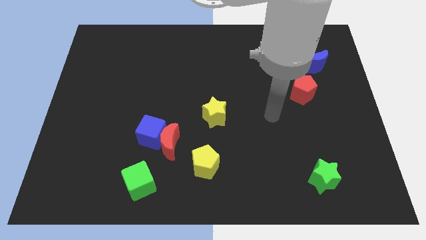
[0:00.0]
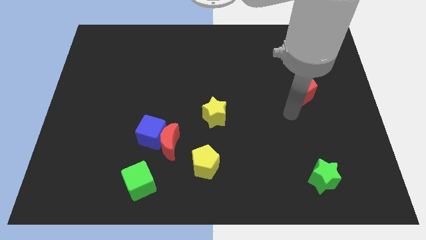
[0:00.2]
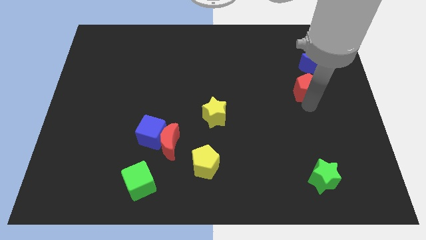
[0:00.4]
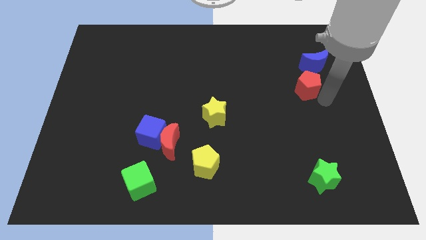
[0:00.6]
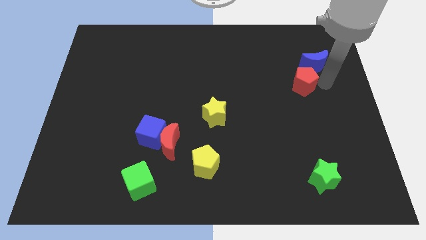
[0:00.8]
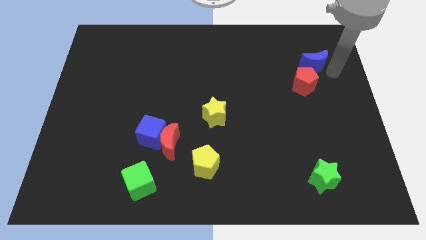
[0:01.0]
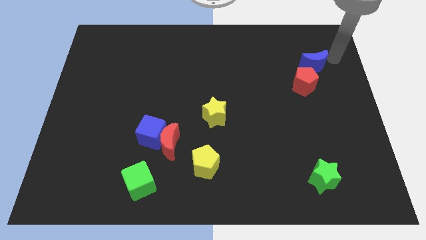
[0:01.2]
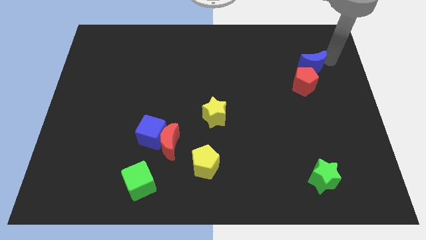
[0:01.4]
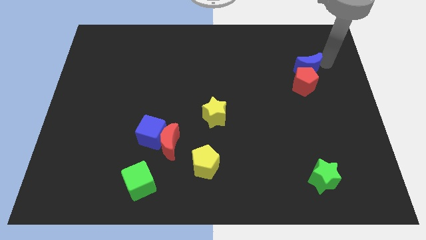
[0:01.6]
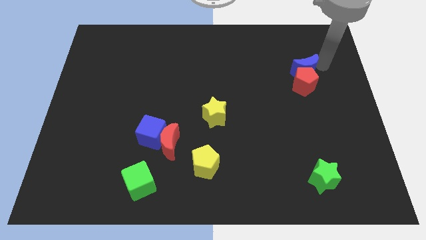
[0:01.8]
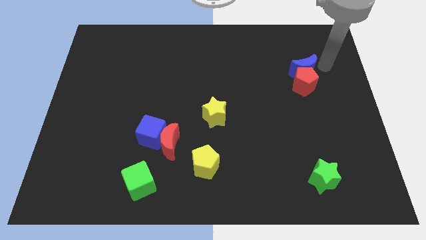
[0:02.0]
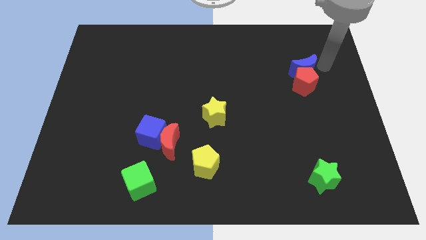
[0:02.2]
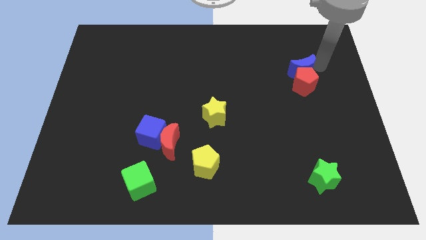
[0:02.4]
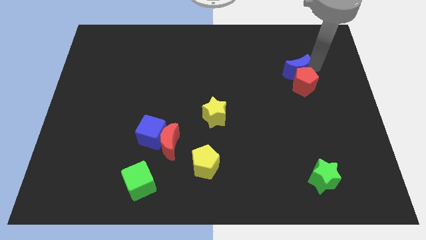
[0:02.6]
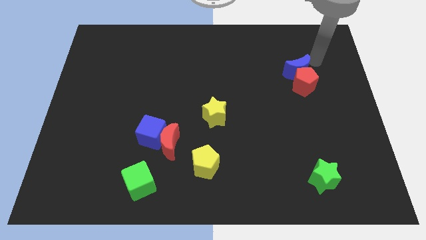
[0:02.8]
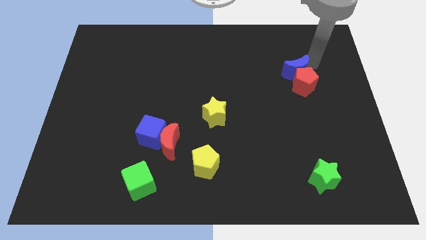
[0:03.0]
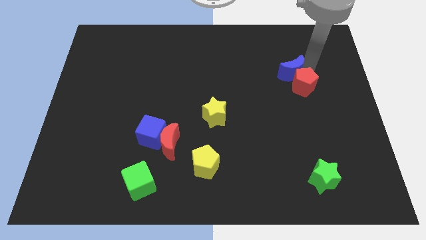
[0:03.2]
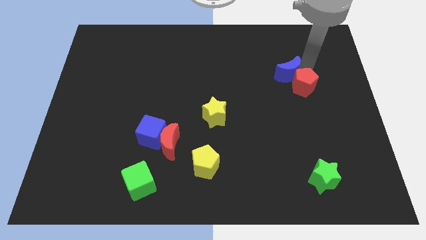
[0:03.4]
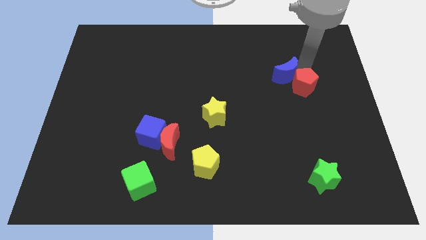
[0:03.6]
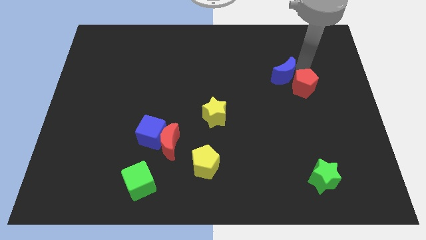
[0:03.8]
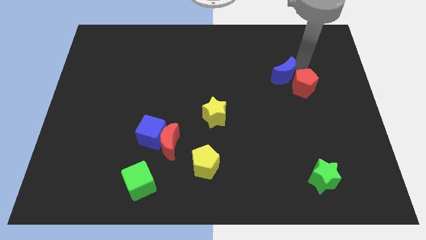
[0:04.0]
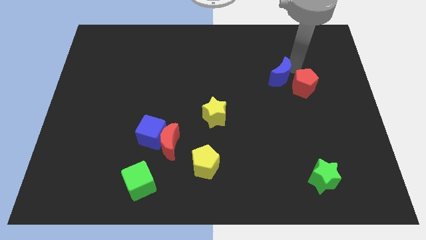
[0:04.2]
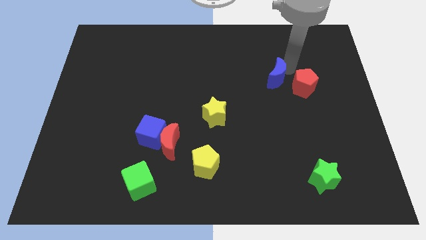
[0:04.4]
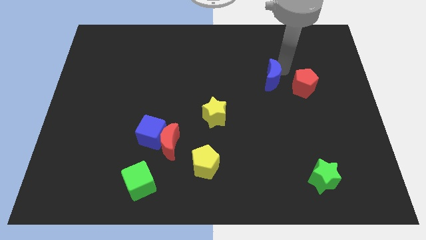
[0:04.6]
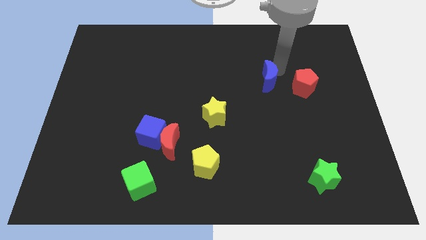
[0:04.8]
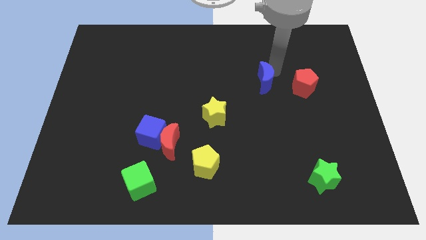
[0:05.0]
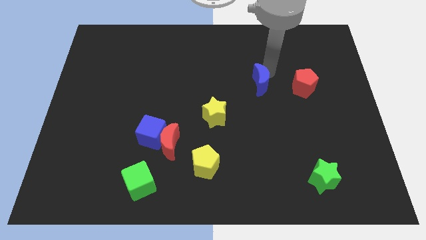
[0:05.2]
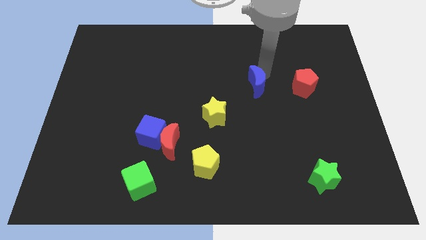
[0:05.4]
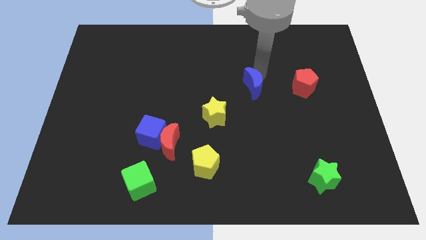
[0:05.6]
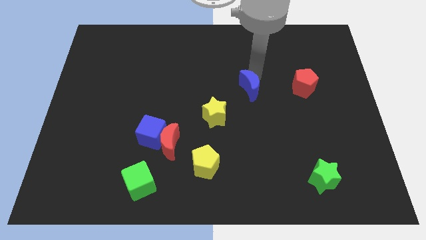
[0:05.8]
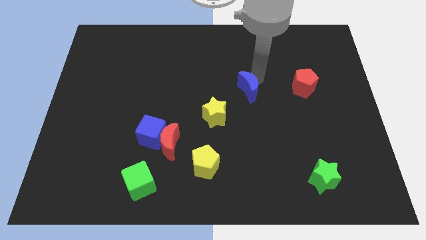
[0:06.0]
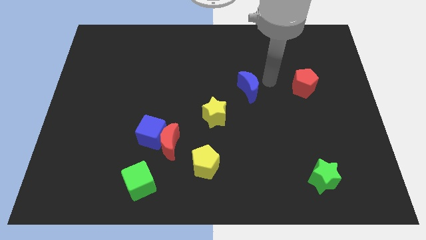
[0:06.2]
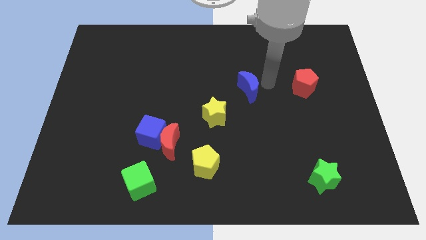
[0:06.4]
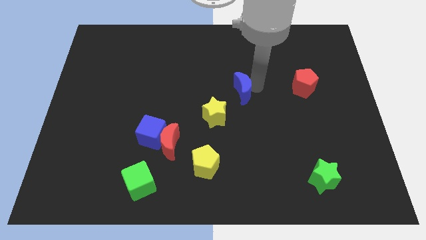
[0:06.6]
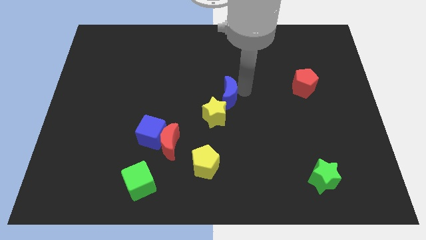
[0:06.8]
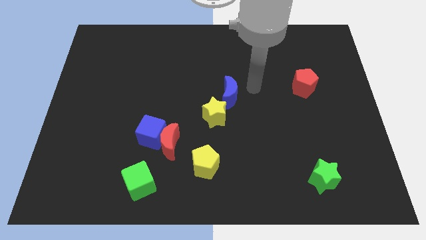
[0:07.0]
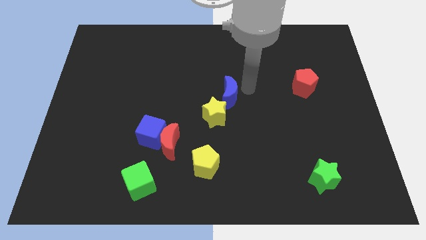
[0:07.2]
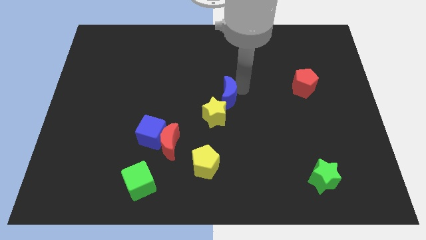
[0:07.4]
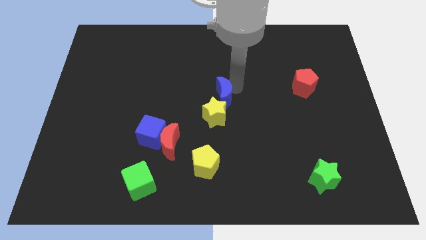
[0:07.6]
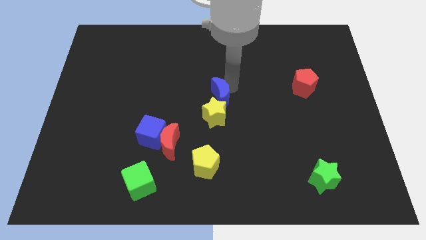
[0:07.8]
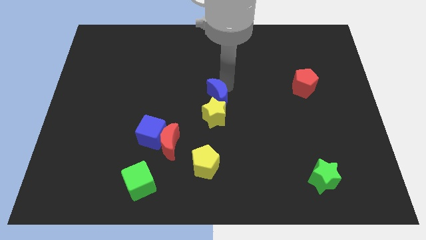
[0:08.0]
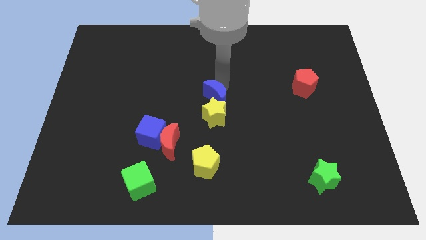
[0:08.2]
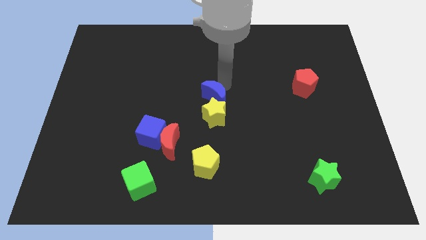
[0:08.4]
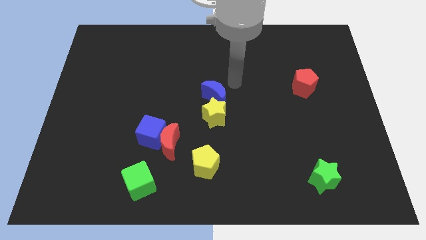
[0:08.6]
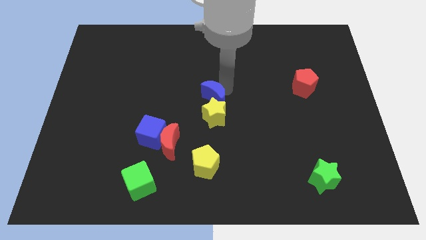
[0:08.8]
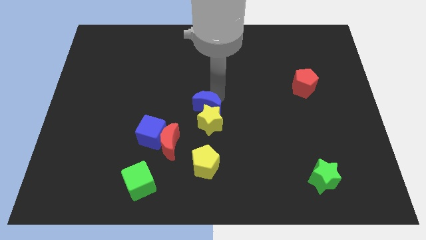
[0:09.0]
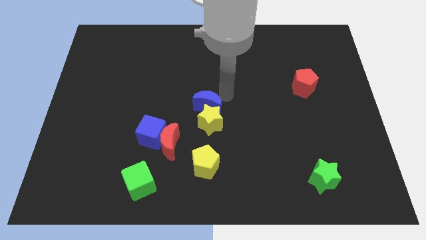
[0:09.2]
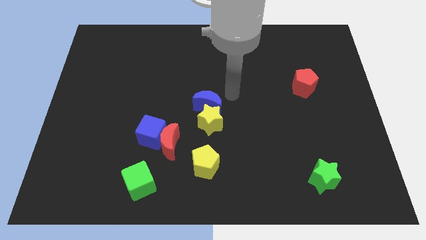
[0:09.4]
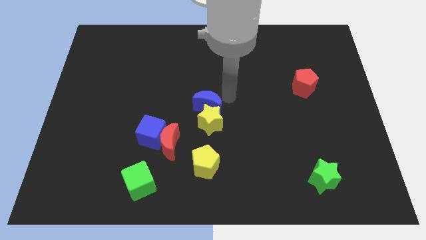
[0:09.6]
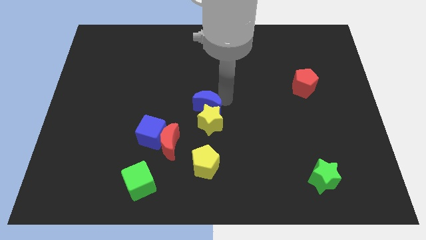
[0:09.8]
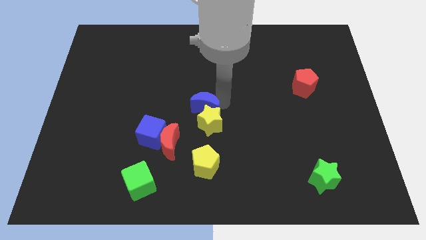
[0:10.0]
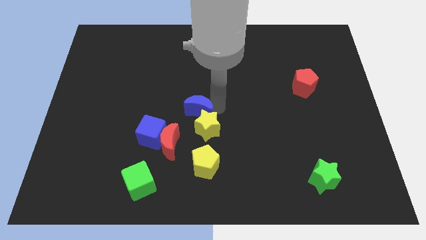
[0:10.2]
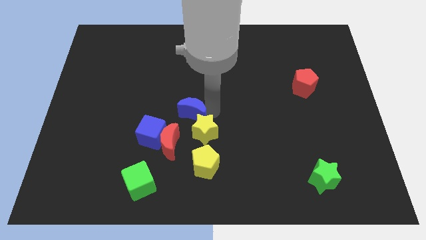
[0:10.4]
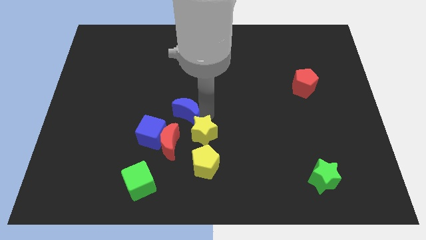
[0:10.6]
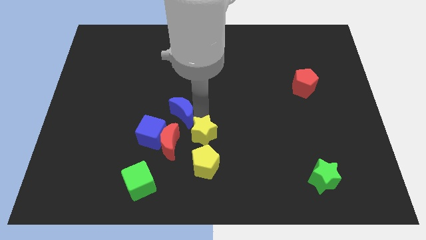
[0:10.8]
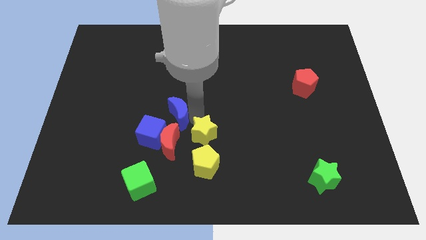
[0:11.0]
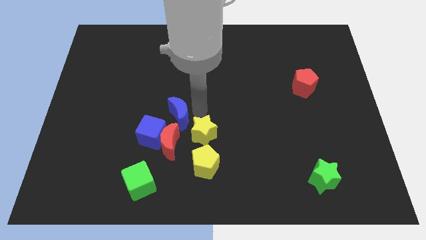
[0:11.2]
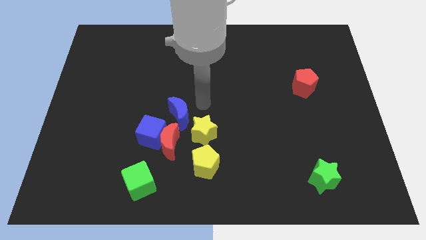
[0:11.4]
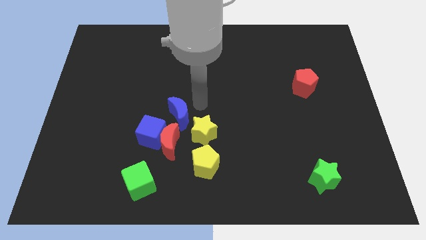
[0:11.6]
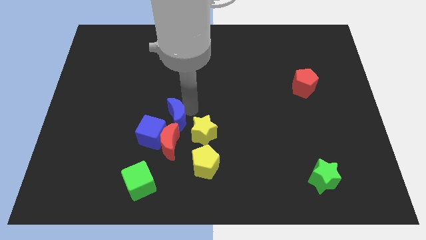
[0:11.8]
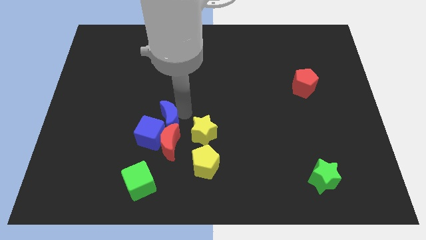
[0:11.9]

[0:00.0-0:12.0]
move the blue moon towards the blue cube

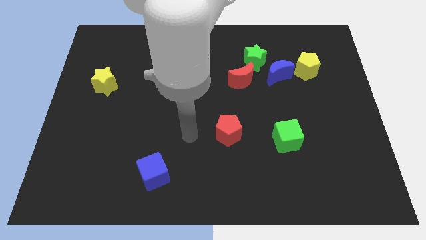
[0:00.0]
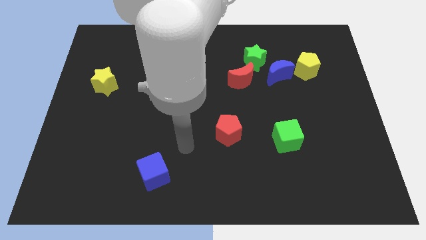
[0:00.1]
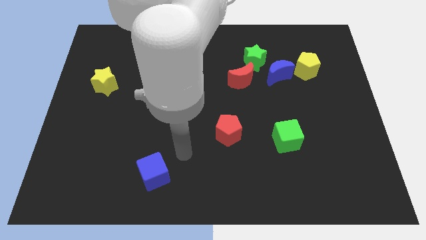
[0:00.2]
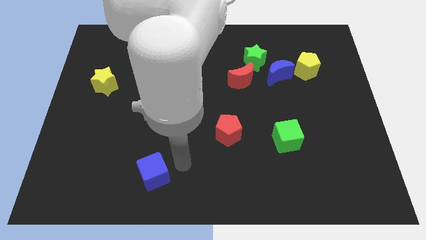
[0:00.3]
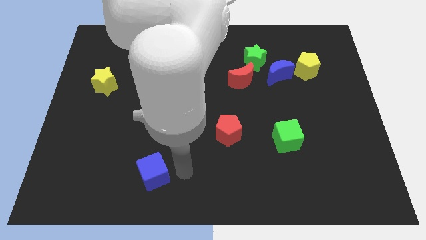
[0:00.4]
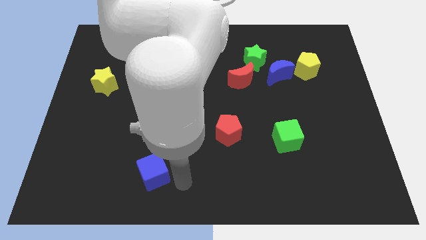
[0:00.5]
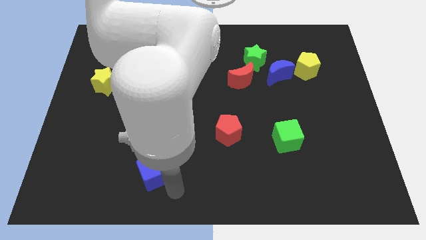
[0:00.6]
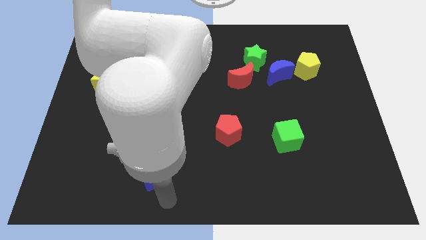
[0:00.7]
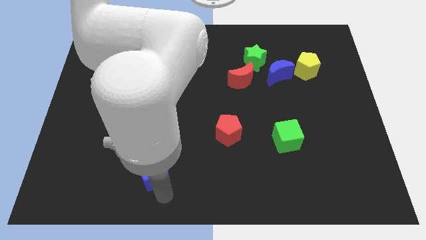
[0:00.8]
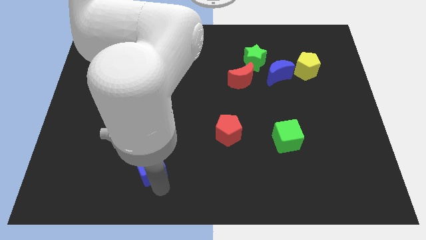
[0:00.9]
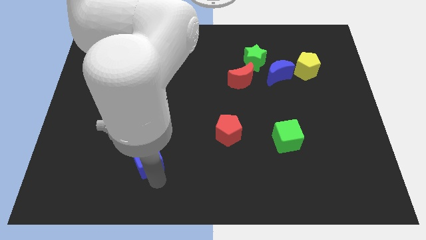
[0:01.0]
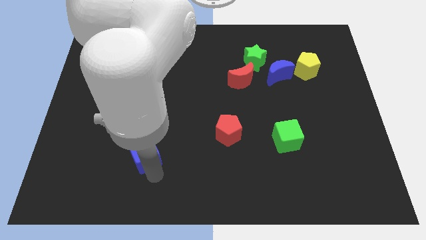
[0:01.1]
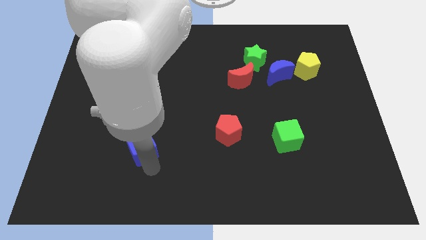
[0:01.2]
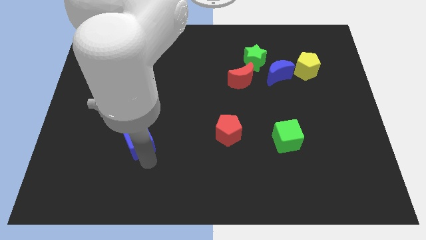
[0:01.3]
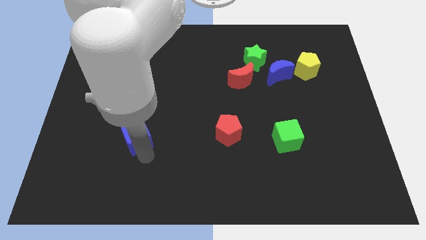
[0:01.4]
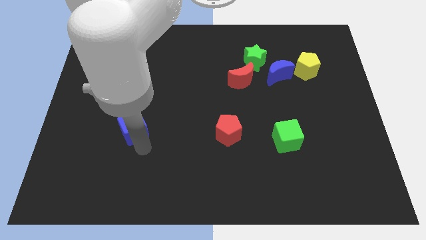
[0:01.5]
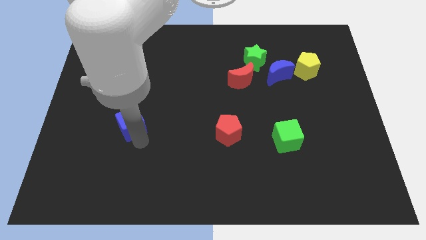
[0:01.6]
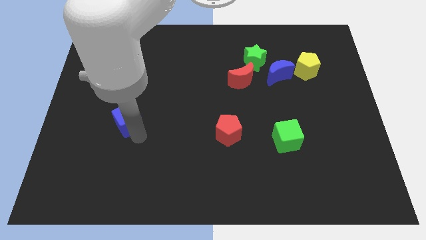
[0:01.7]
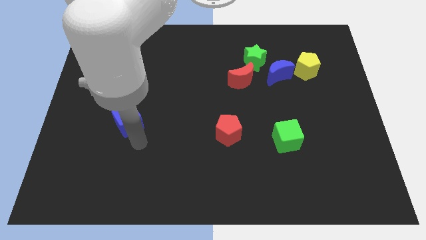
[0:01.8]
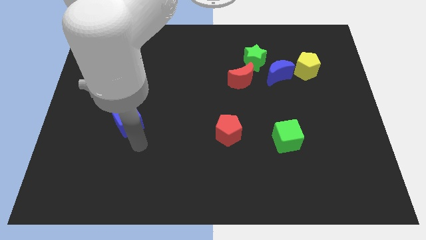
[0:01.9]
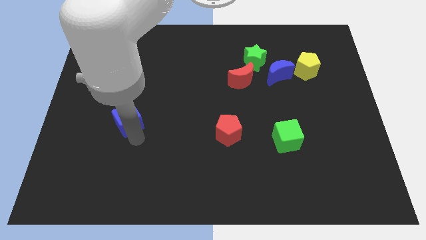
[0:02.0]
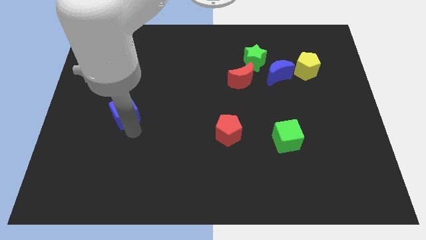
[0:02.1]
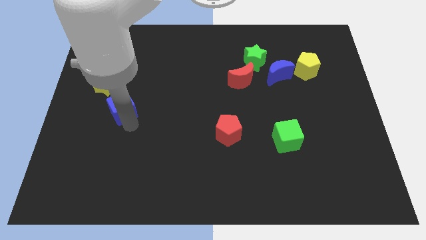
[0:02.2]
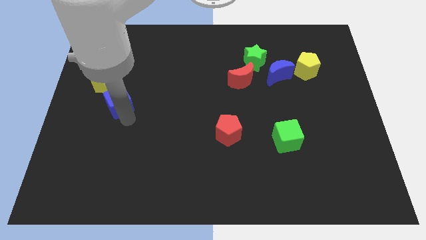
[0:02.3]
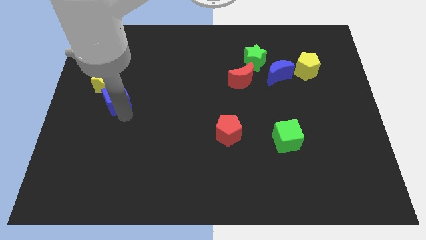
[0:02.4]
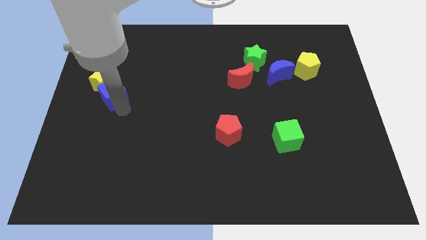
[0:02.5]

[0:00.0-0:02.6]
push the blue cube towards the yellow star
